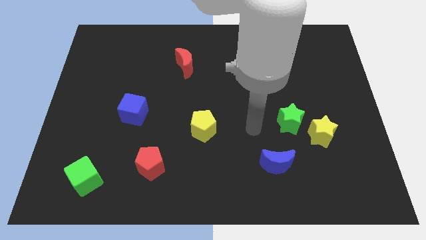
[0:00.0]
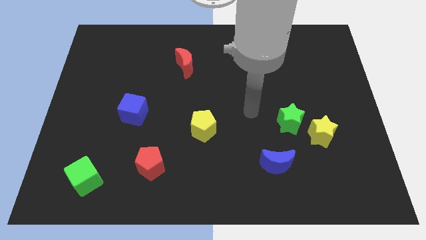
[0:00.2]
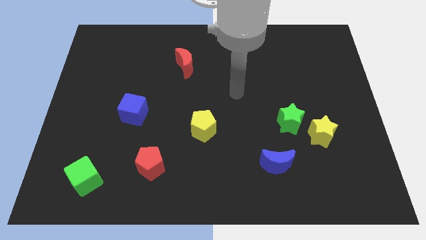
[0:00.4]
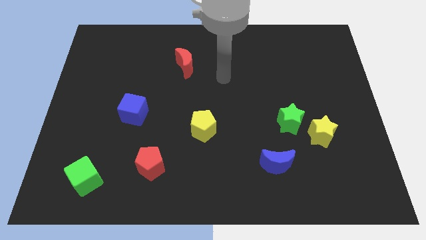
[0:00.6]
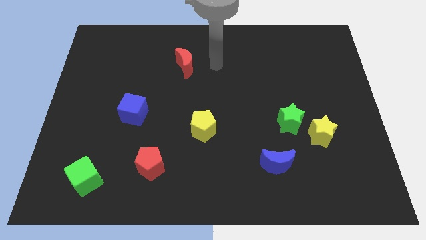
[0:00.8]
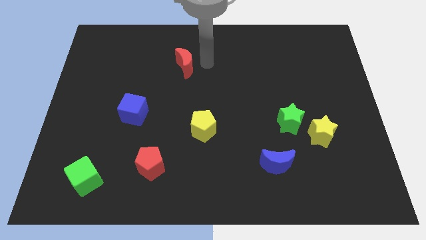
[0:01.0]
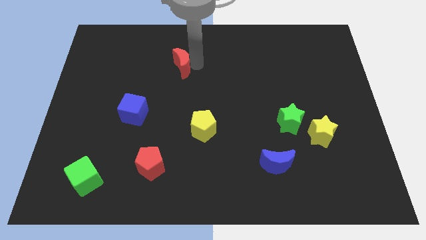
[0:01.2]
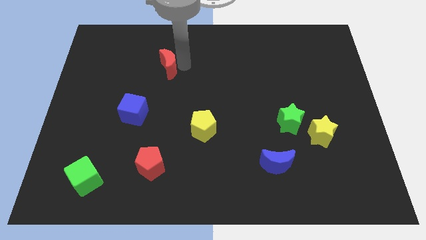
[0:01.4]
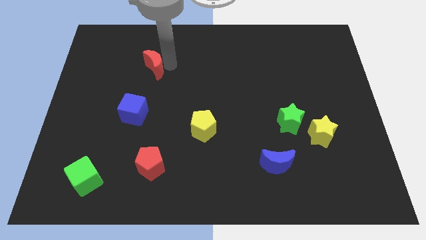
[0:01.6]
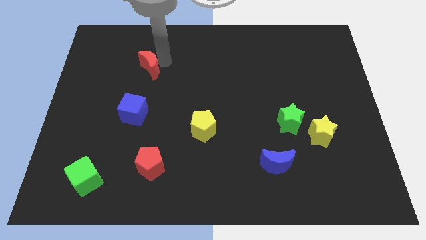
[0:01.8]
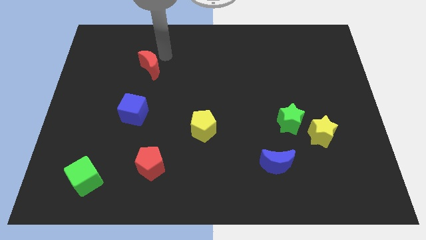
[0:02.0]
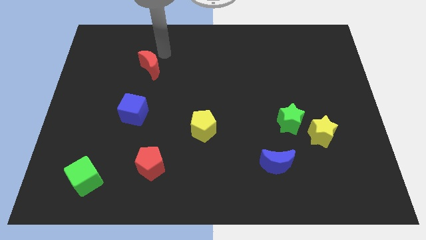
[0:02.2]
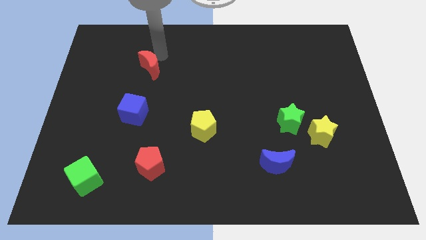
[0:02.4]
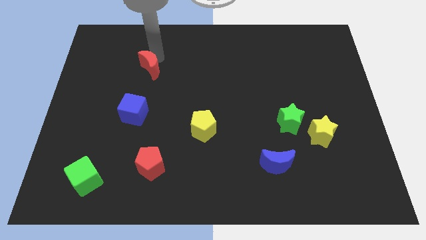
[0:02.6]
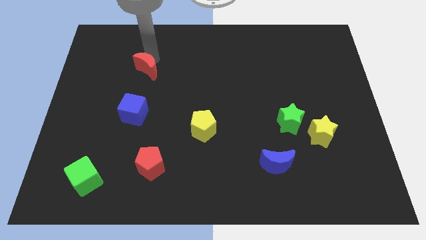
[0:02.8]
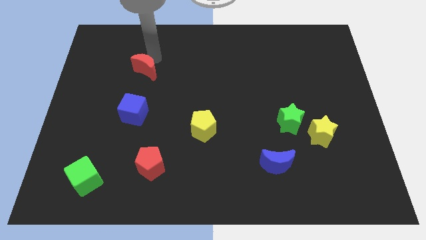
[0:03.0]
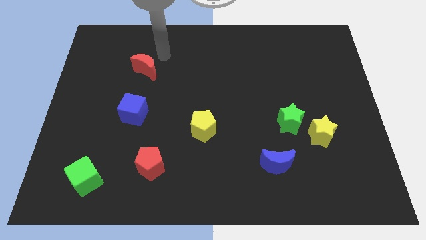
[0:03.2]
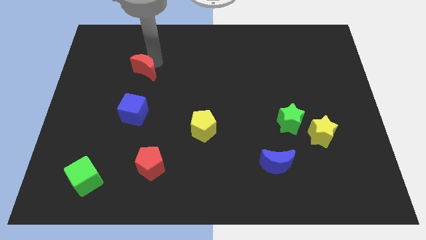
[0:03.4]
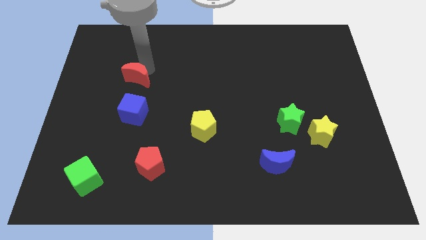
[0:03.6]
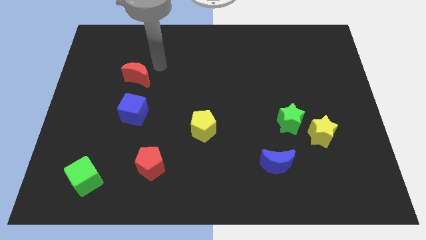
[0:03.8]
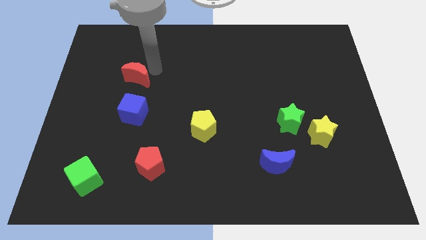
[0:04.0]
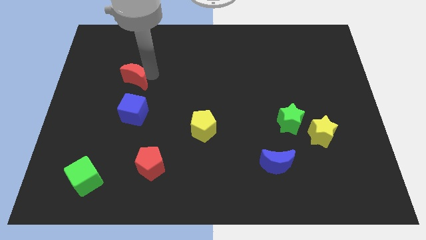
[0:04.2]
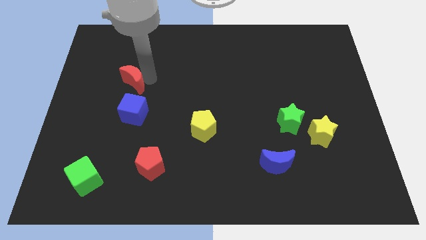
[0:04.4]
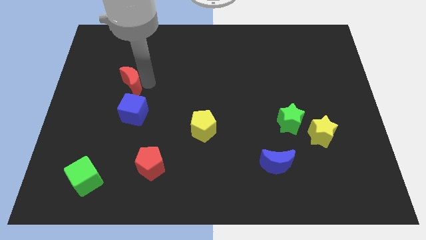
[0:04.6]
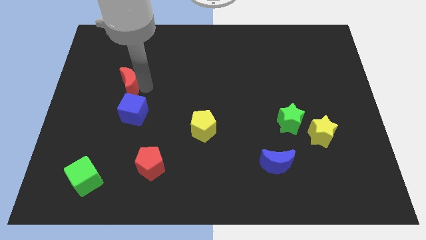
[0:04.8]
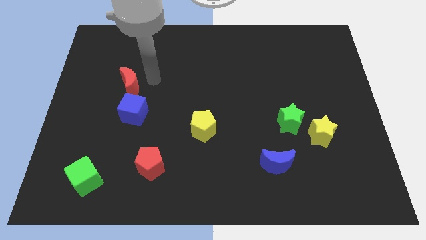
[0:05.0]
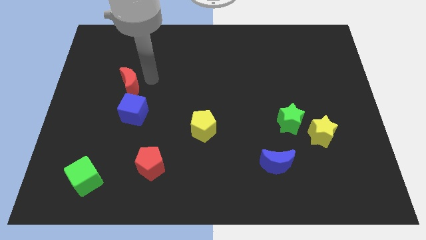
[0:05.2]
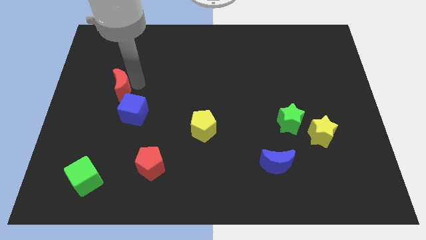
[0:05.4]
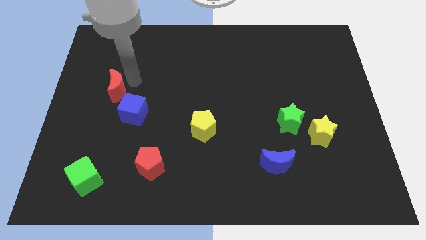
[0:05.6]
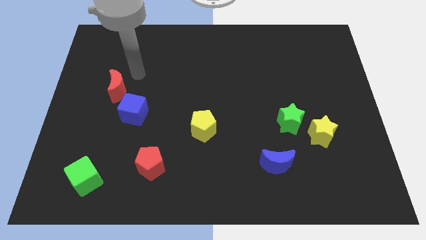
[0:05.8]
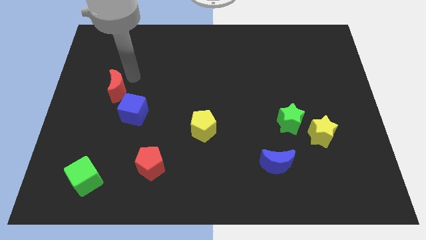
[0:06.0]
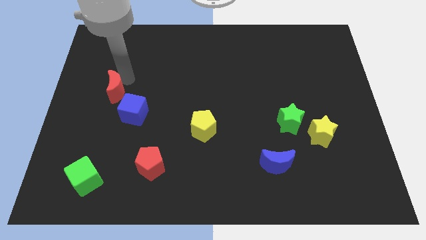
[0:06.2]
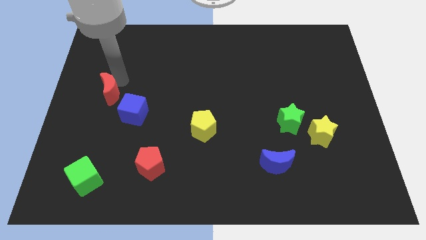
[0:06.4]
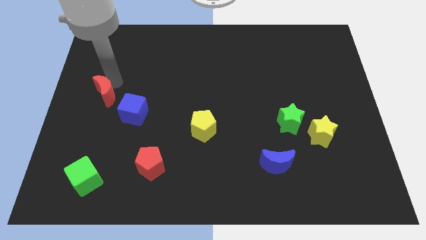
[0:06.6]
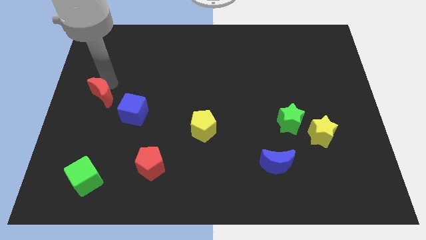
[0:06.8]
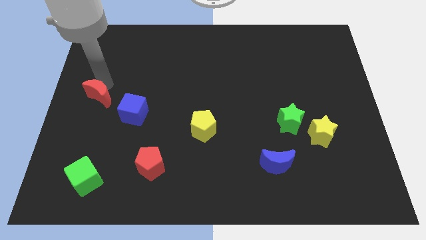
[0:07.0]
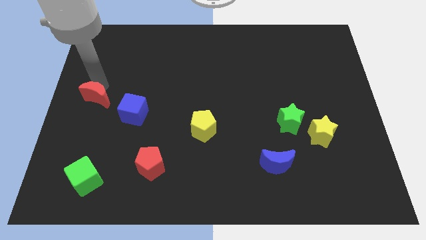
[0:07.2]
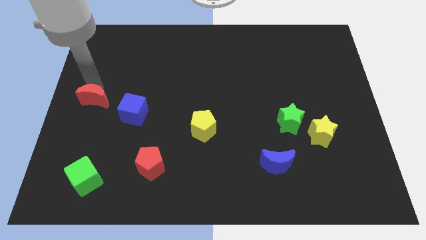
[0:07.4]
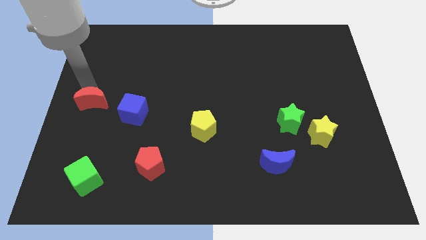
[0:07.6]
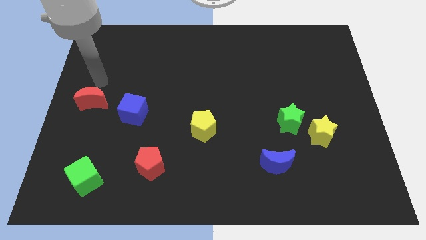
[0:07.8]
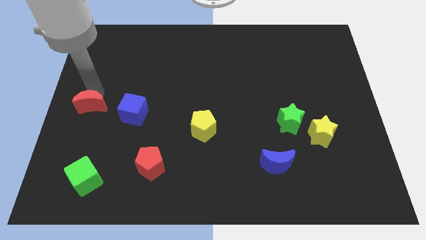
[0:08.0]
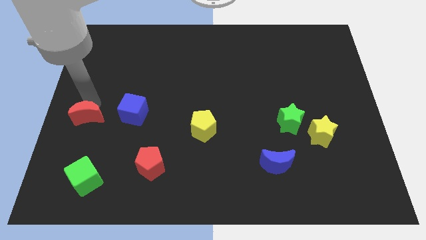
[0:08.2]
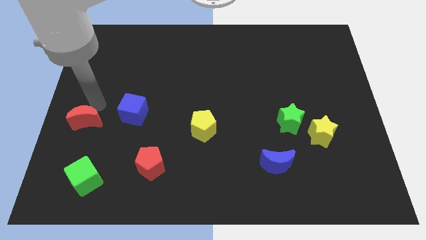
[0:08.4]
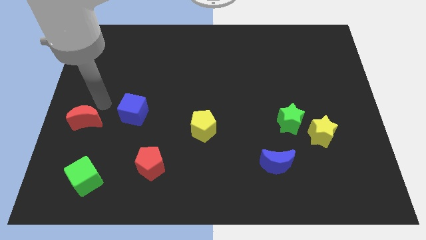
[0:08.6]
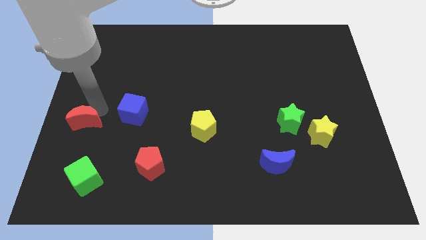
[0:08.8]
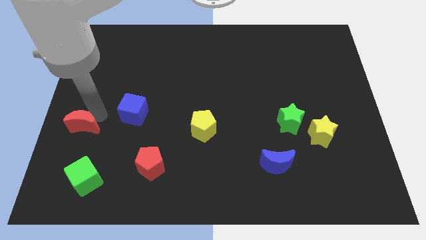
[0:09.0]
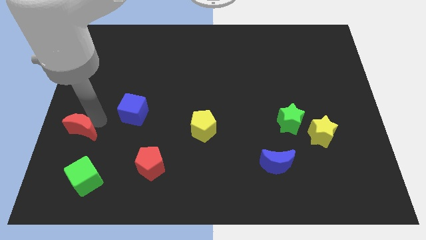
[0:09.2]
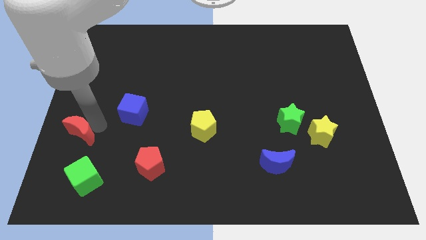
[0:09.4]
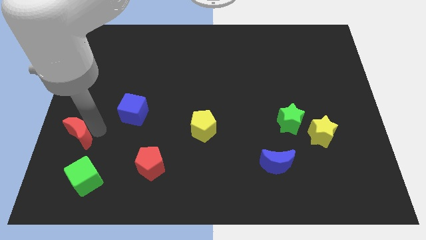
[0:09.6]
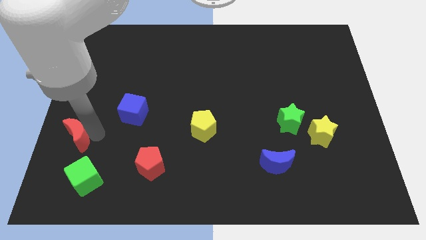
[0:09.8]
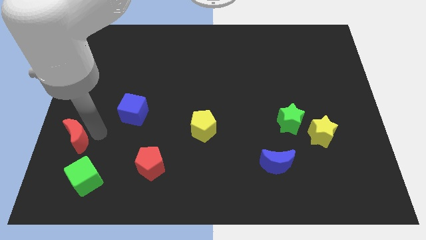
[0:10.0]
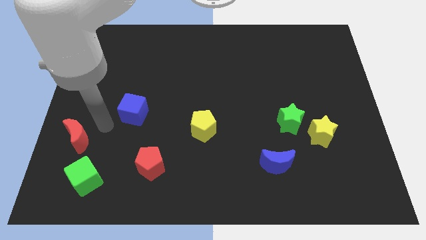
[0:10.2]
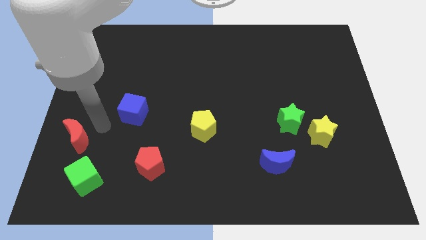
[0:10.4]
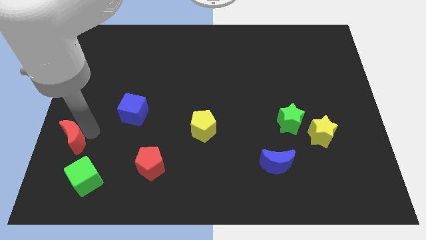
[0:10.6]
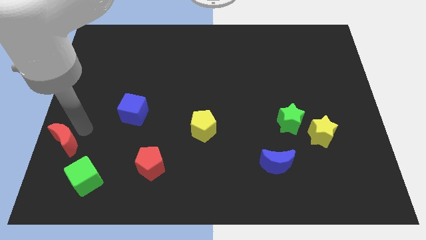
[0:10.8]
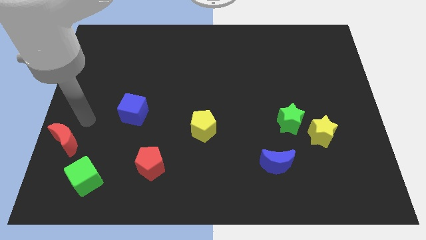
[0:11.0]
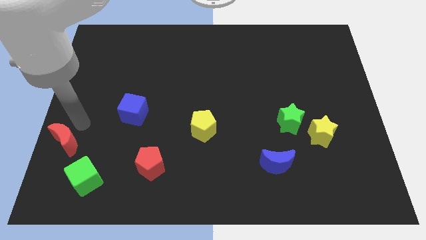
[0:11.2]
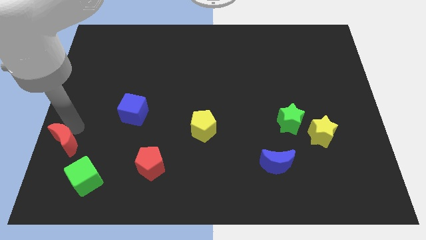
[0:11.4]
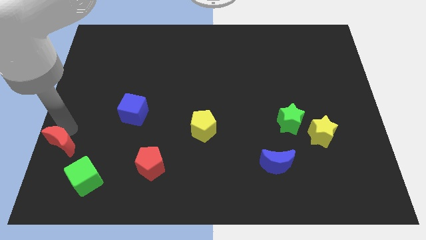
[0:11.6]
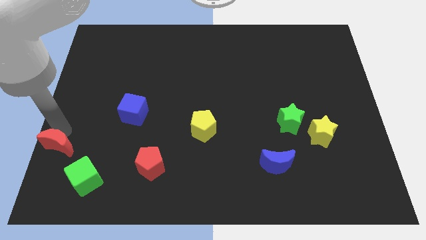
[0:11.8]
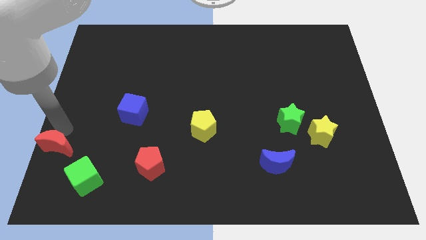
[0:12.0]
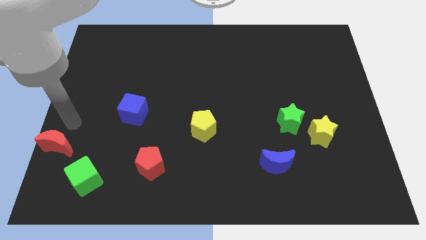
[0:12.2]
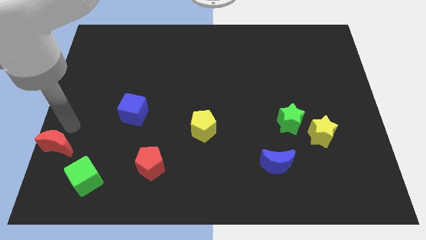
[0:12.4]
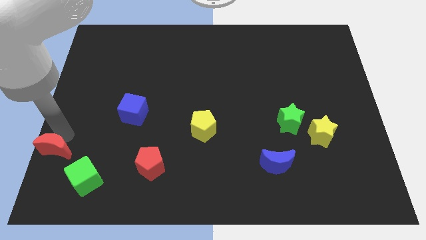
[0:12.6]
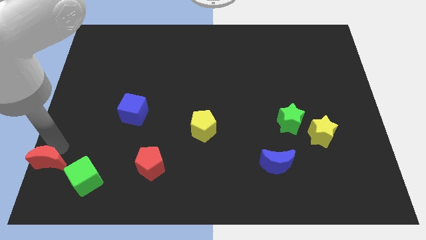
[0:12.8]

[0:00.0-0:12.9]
move the red moon to the bottom left corner

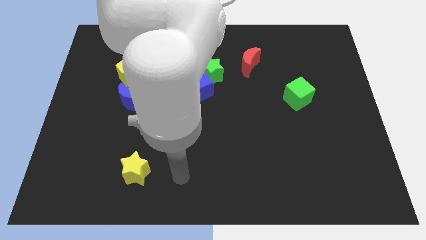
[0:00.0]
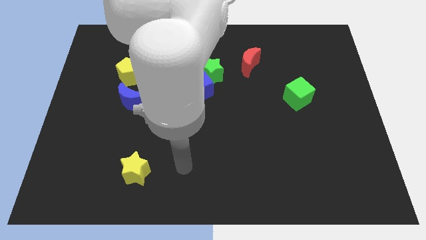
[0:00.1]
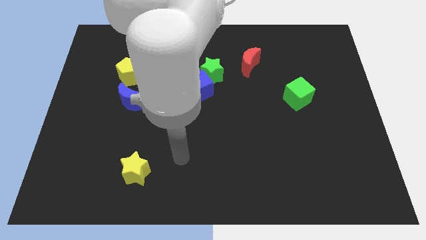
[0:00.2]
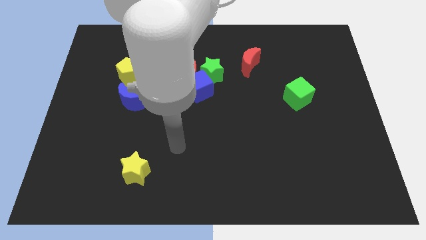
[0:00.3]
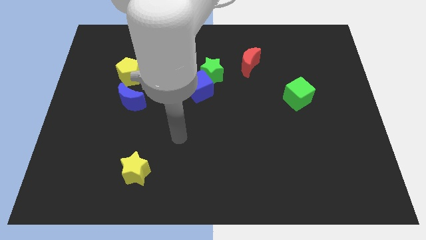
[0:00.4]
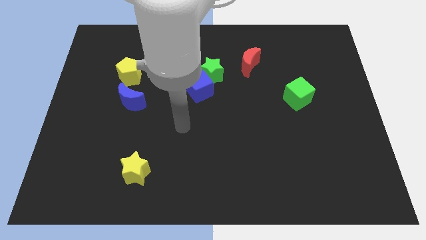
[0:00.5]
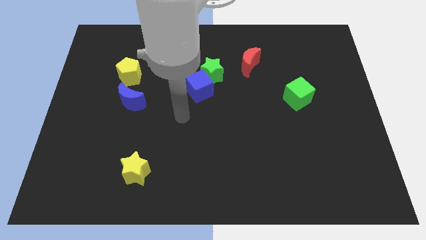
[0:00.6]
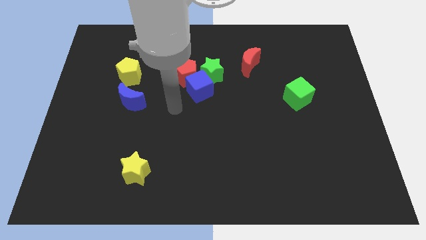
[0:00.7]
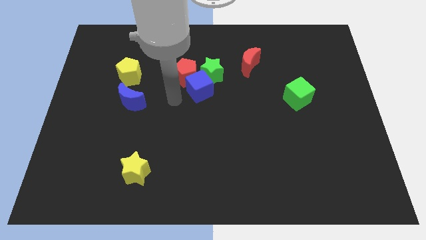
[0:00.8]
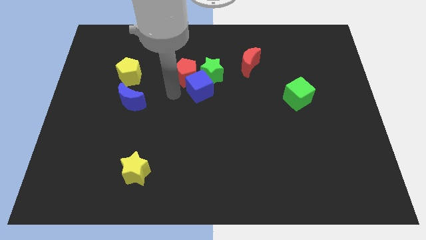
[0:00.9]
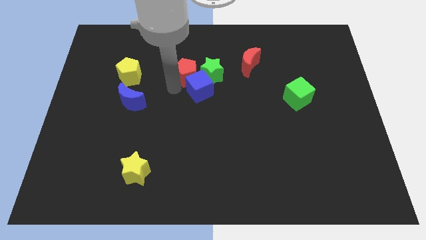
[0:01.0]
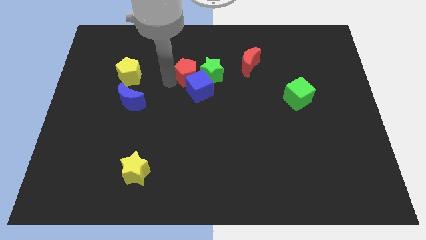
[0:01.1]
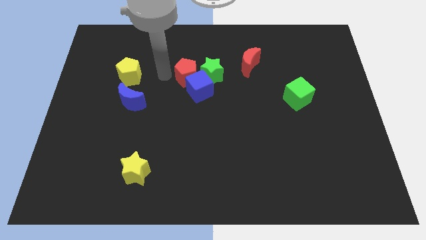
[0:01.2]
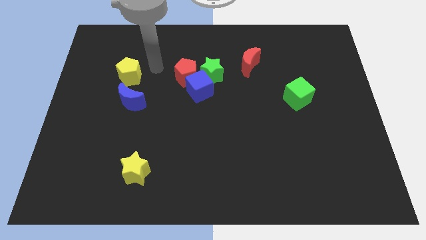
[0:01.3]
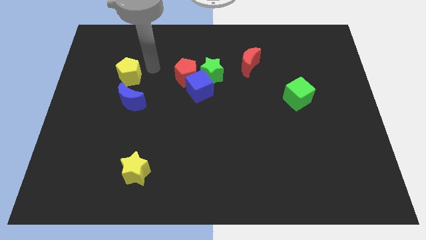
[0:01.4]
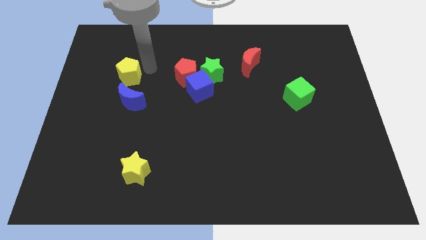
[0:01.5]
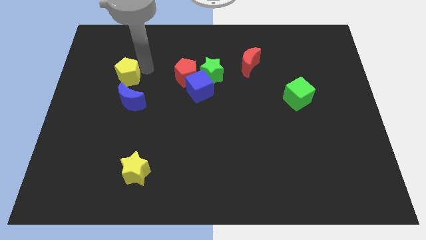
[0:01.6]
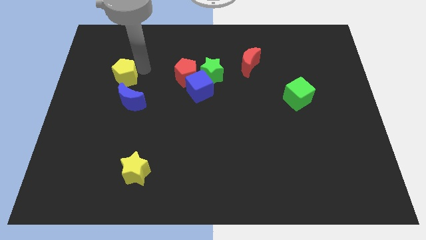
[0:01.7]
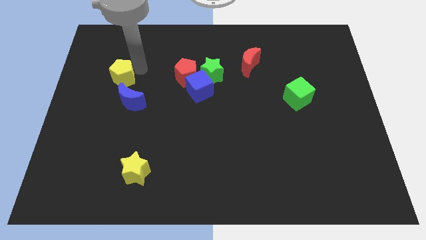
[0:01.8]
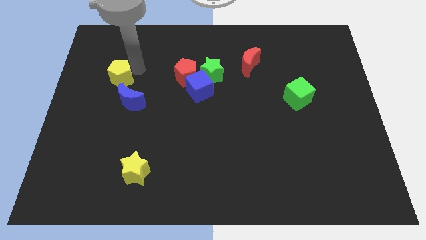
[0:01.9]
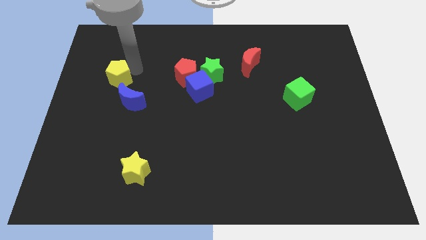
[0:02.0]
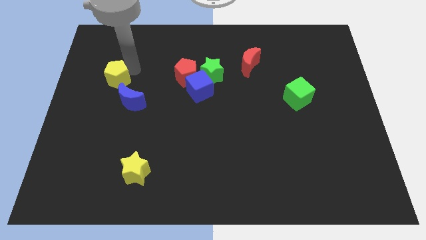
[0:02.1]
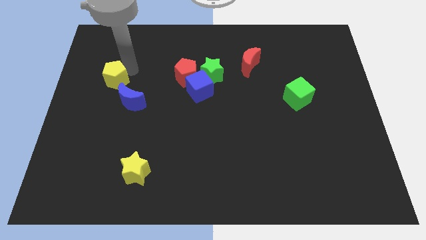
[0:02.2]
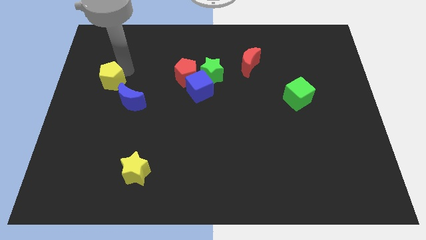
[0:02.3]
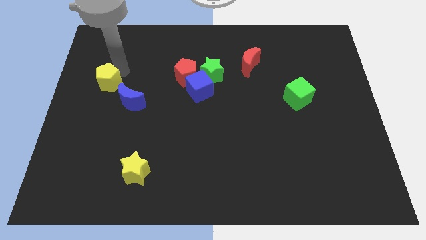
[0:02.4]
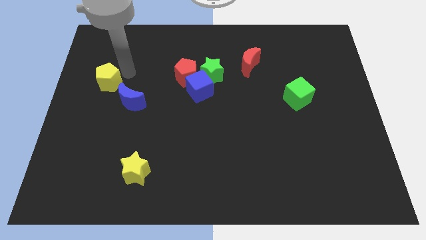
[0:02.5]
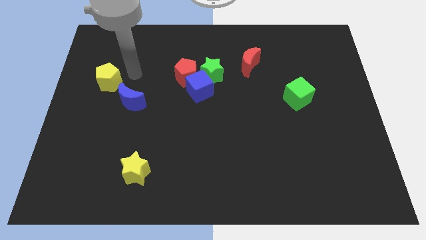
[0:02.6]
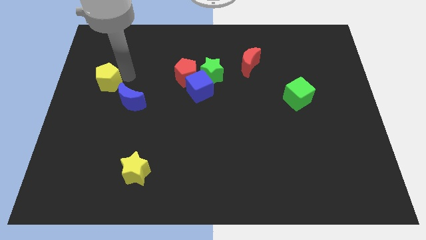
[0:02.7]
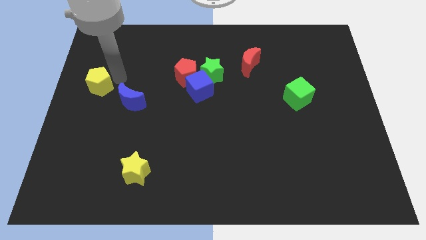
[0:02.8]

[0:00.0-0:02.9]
push the yellow pentagon to the center left
